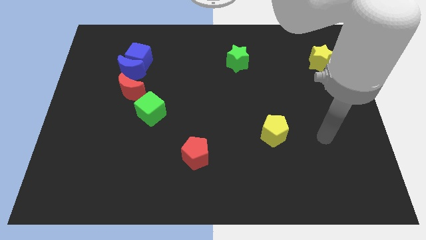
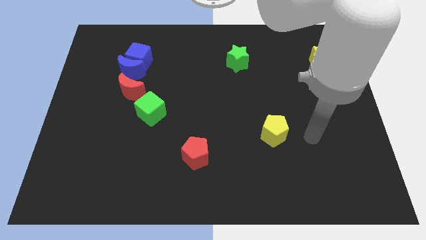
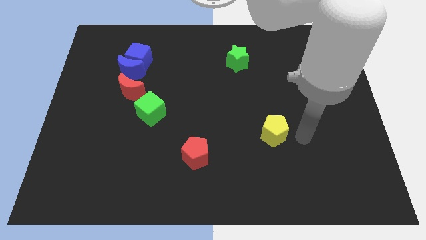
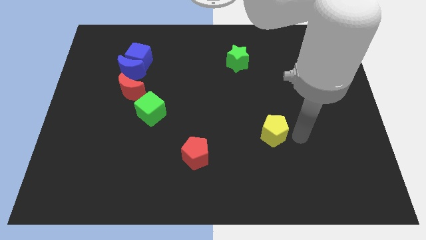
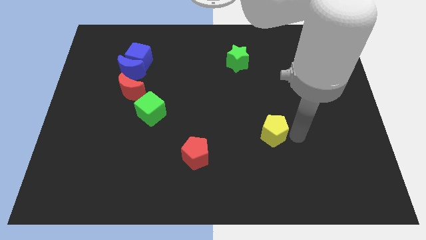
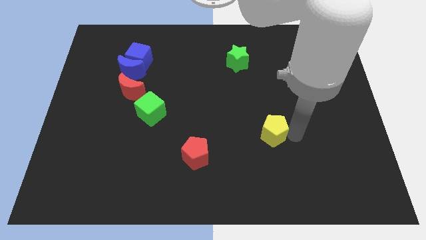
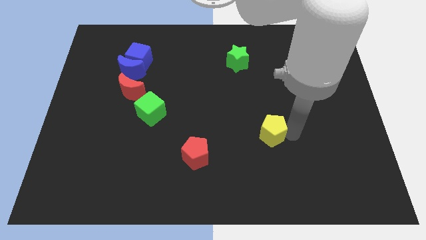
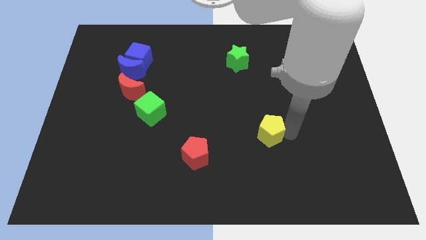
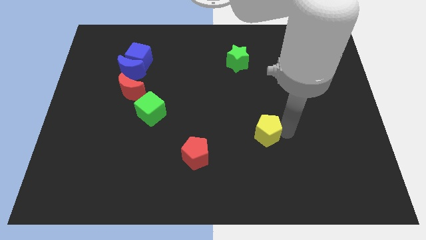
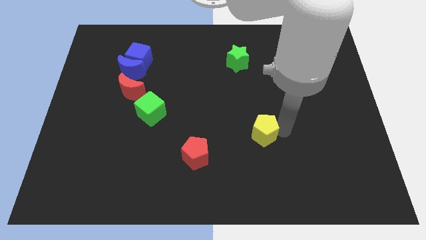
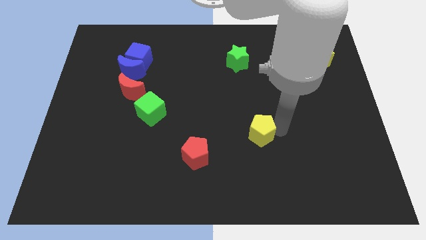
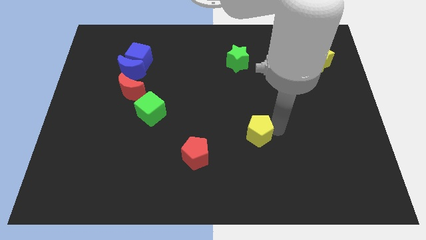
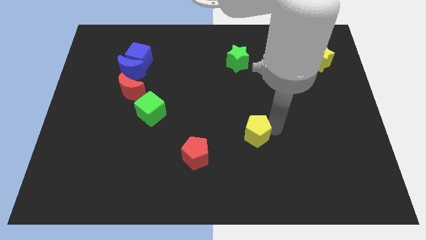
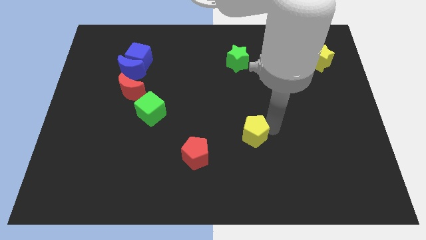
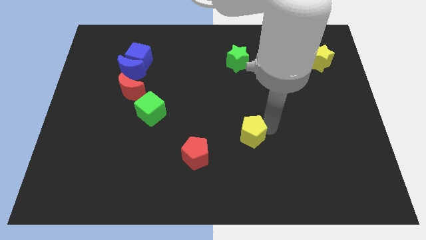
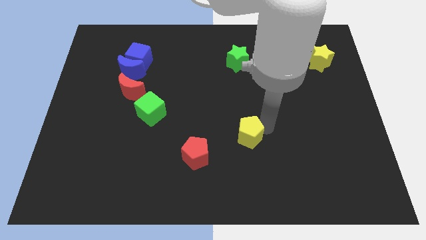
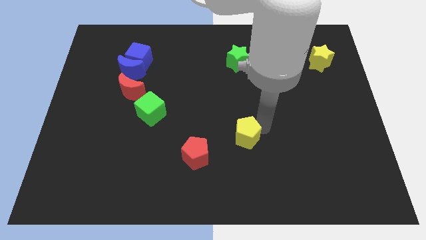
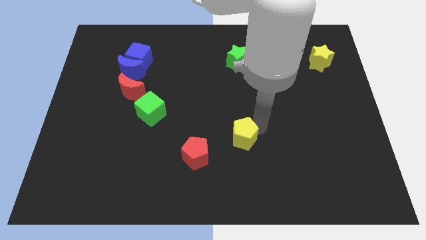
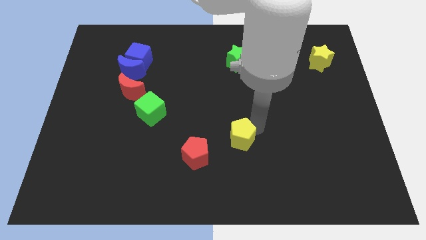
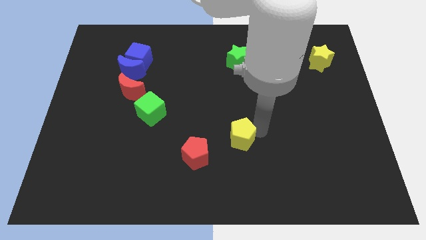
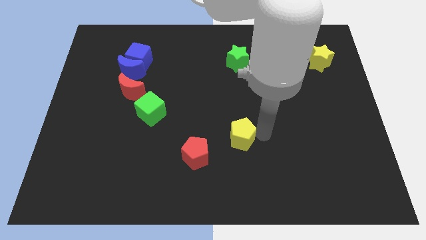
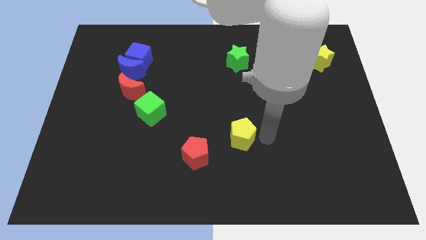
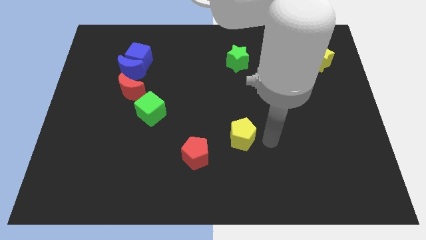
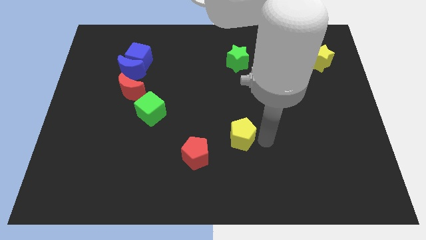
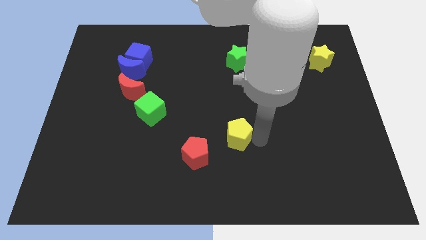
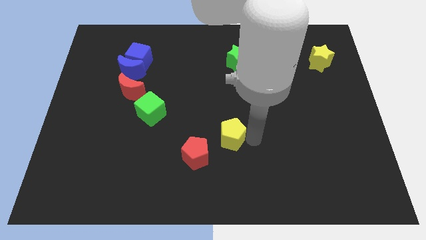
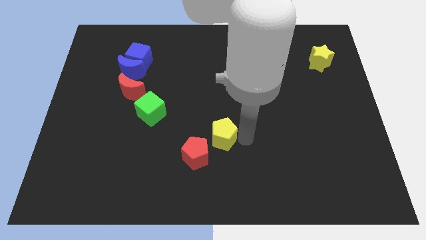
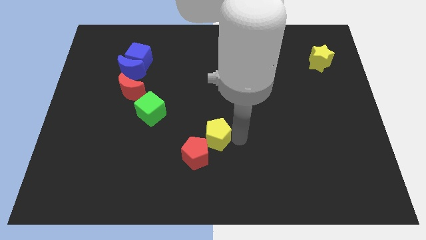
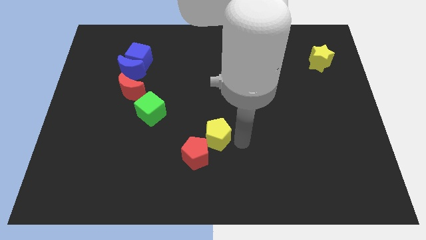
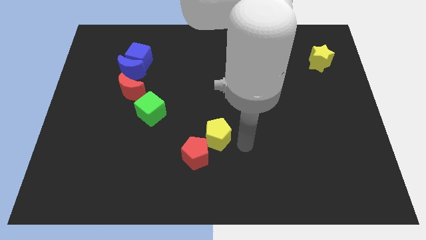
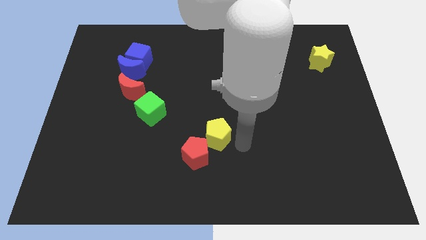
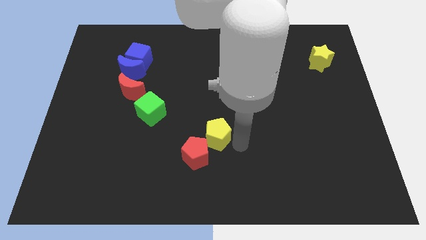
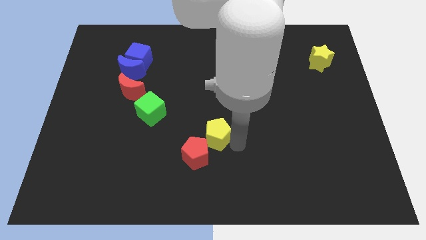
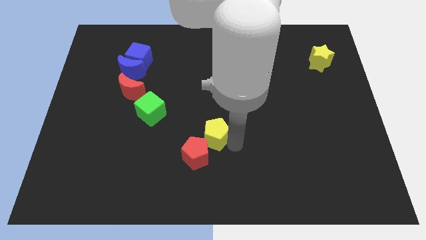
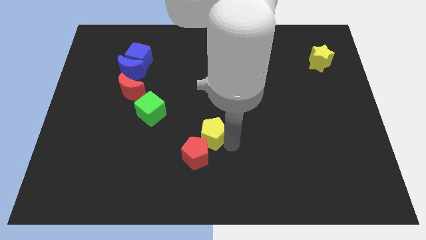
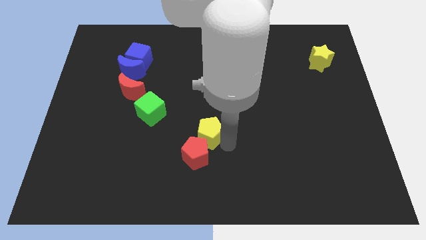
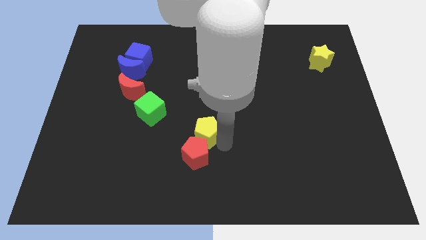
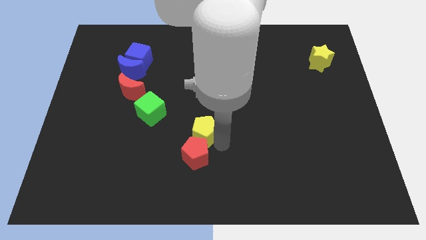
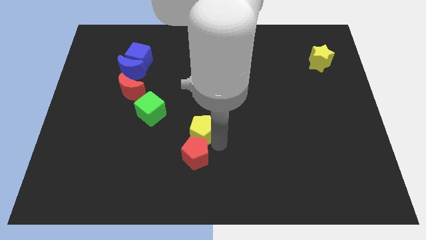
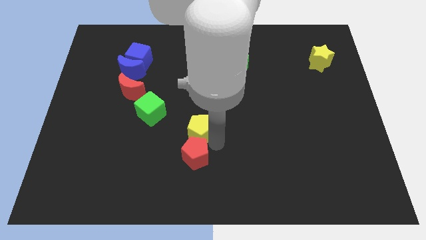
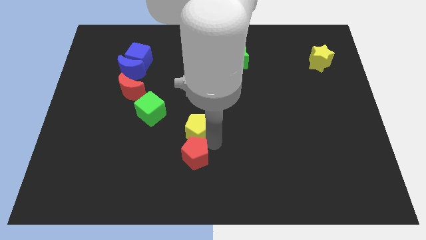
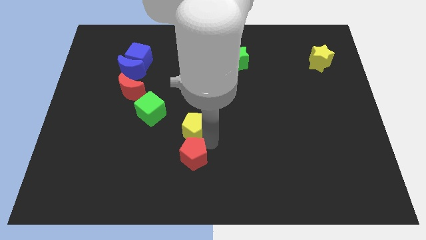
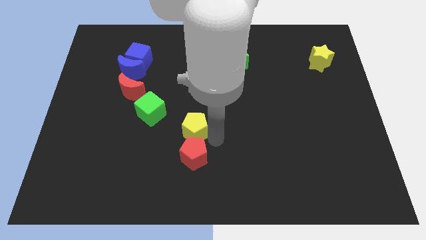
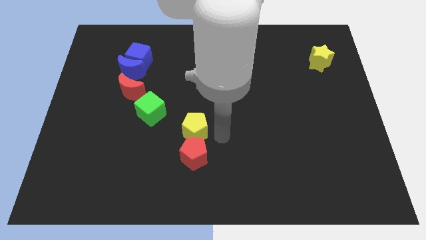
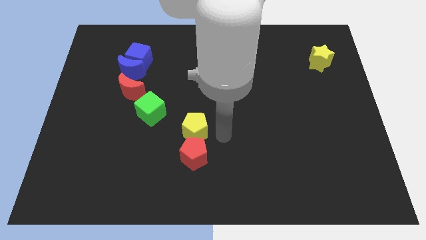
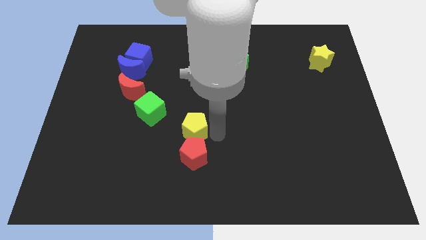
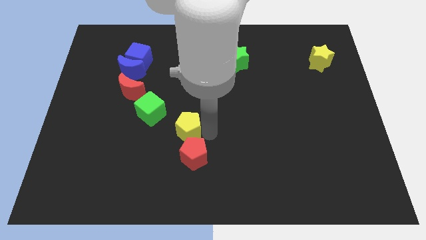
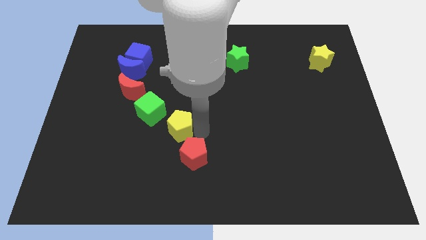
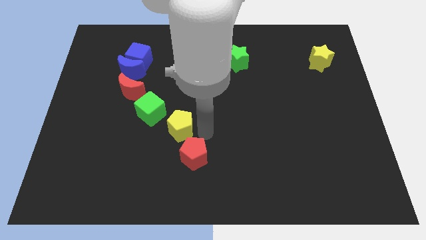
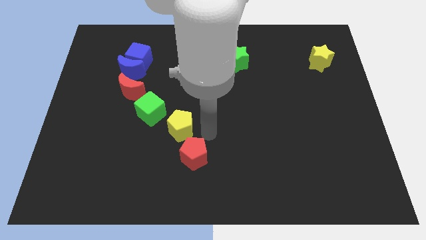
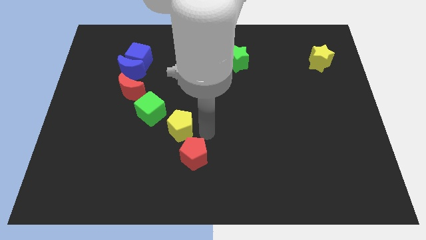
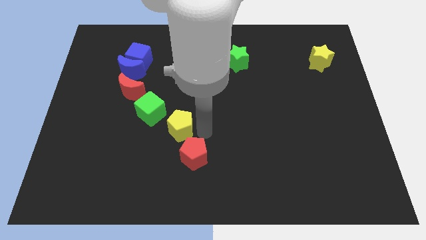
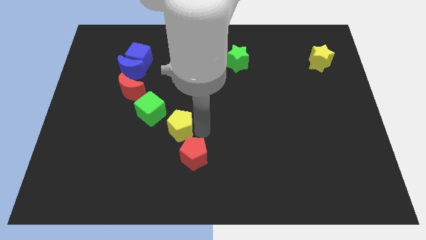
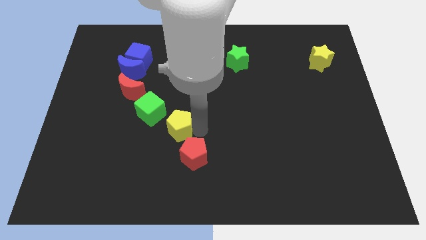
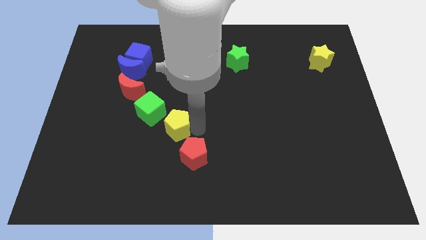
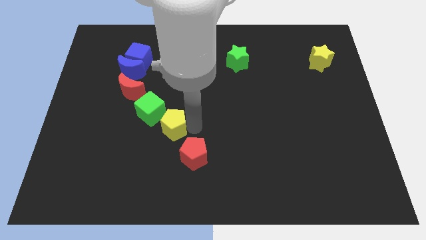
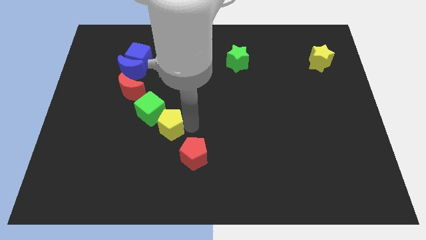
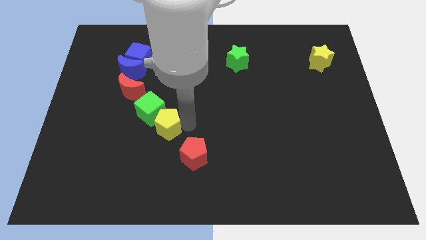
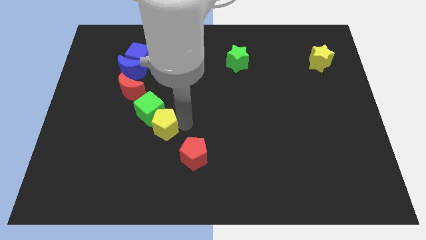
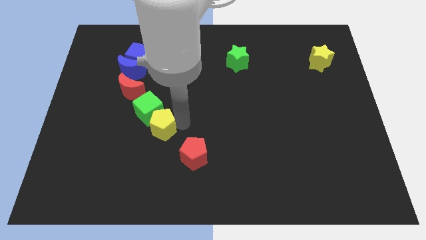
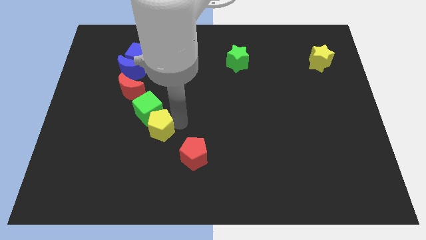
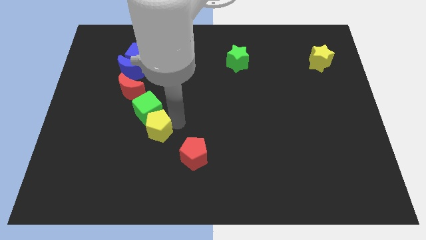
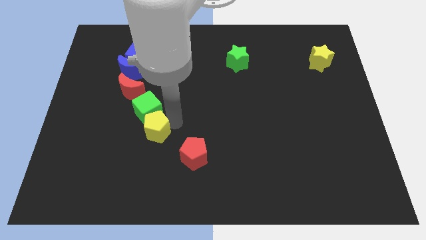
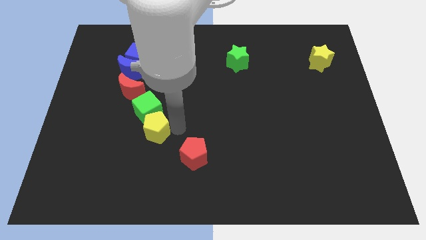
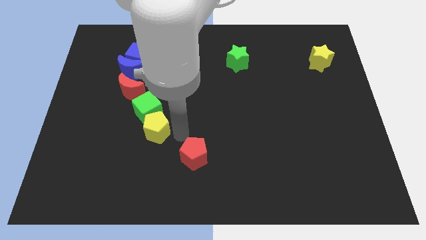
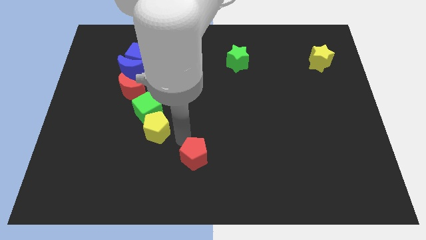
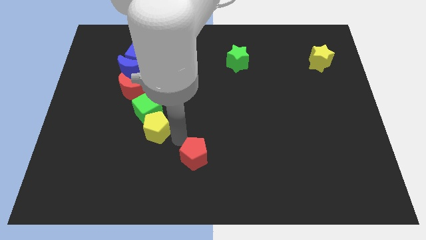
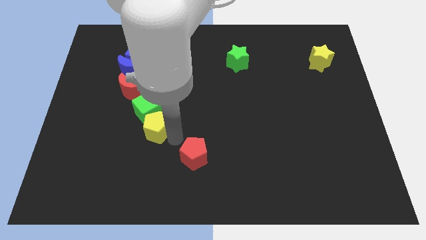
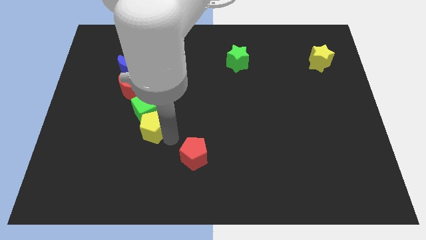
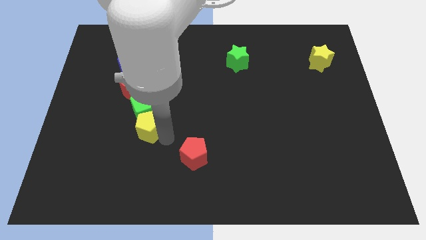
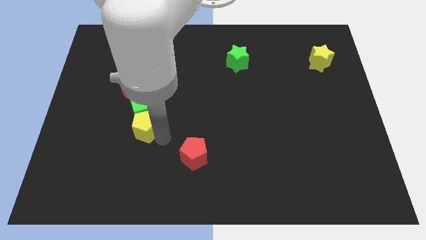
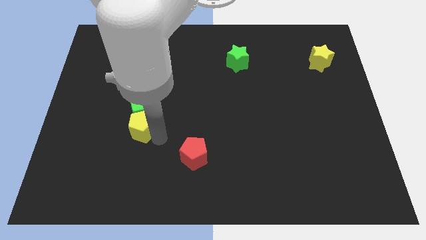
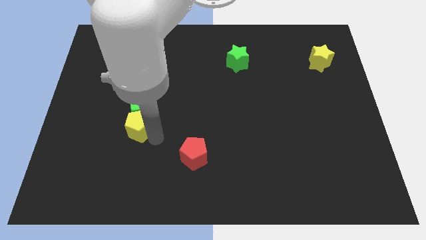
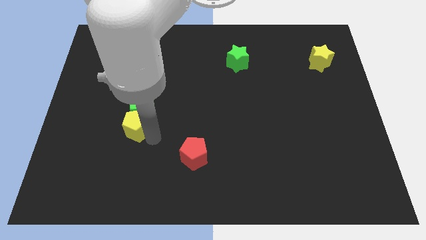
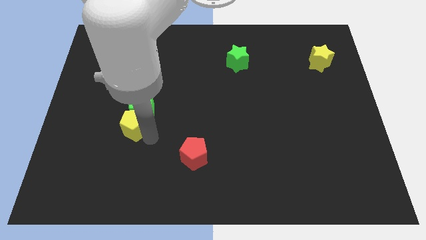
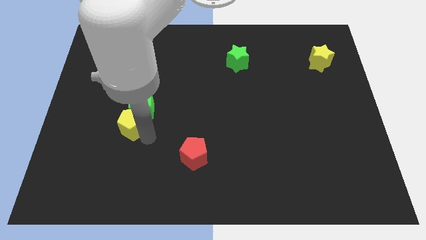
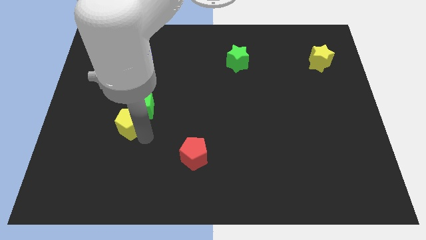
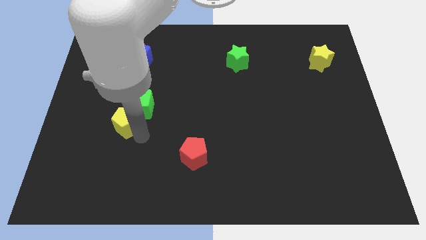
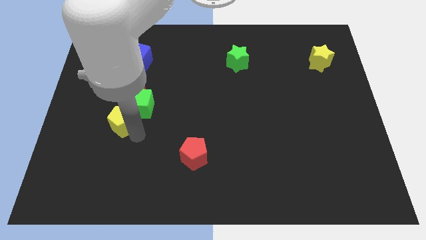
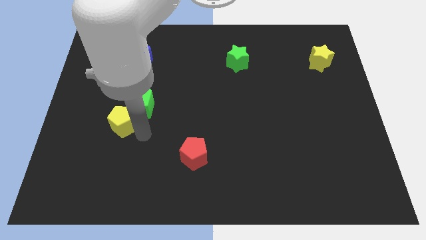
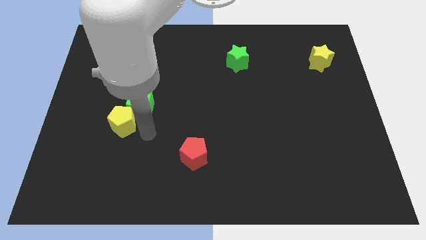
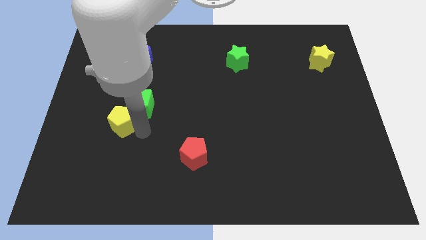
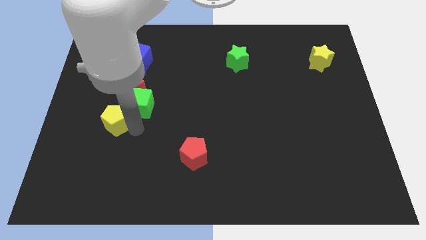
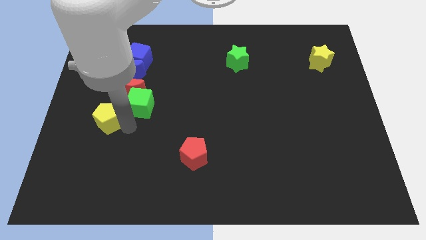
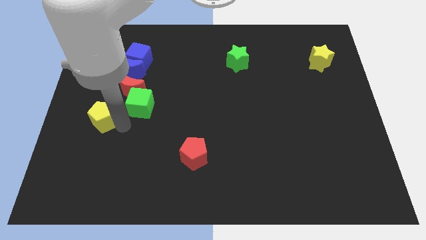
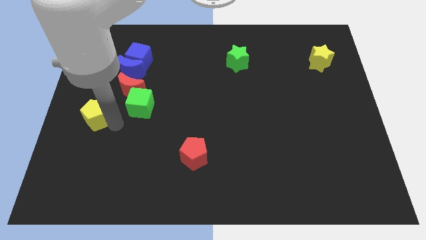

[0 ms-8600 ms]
move the yellow pentagon to the left side of the board
